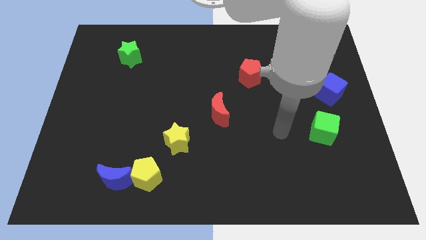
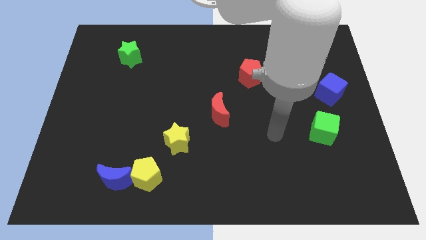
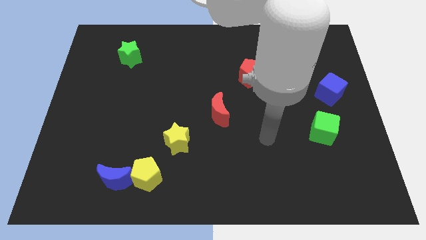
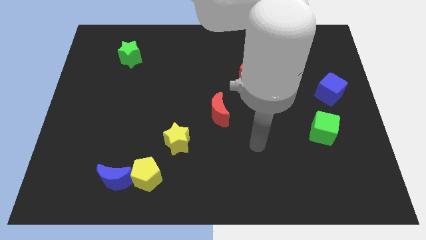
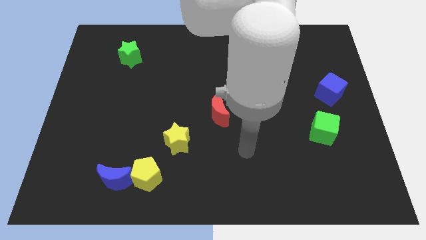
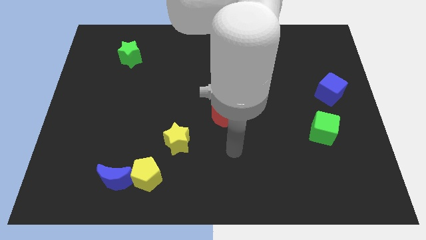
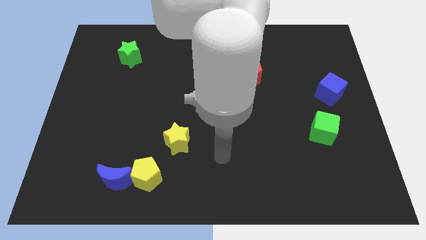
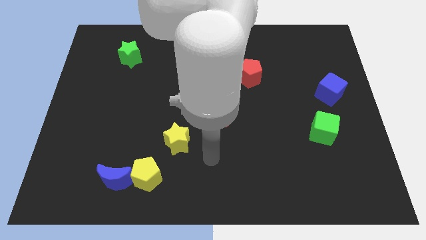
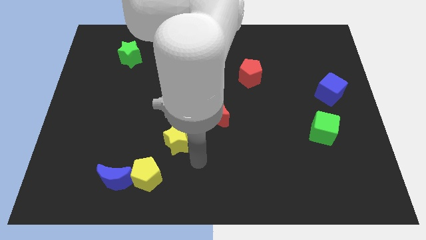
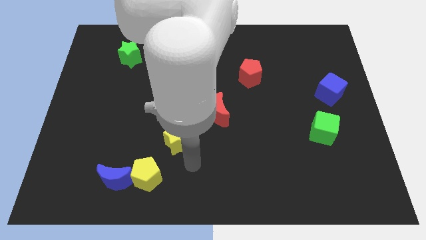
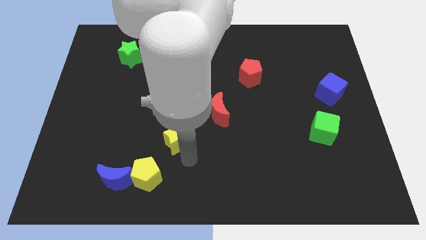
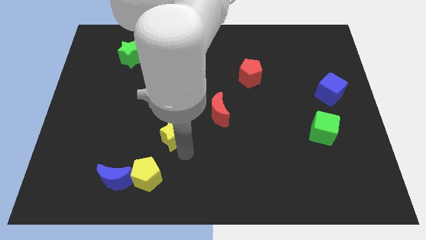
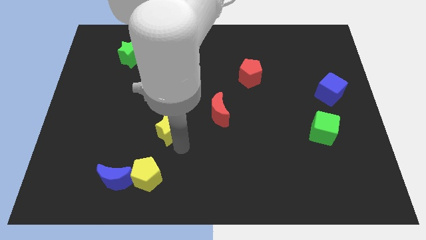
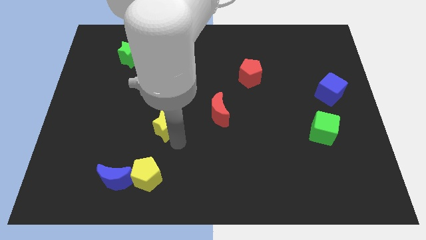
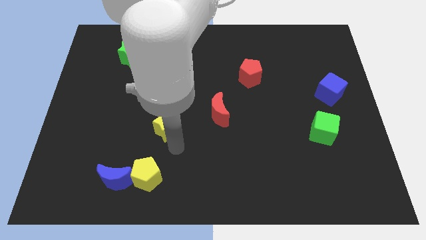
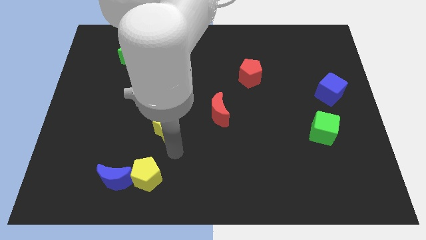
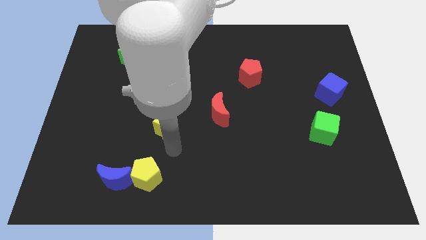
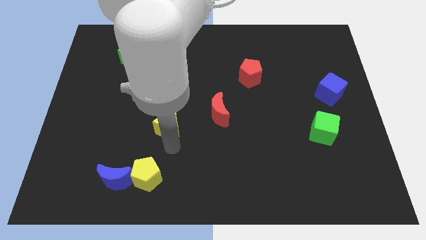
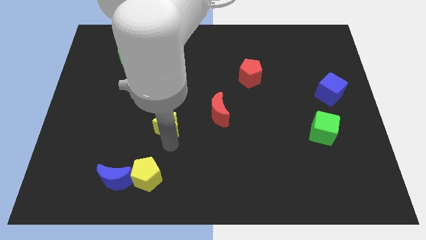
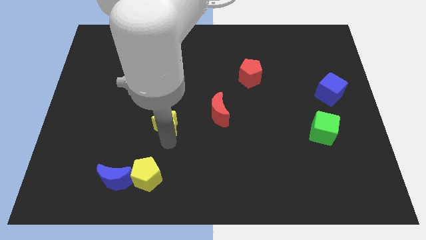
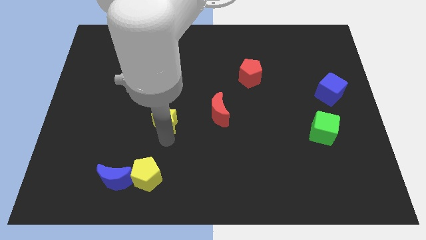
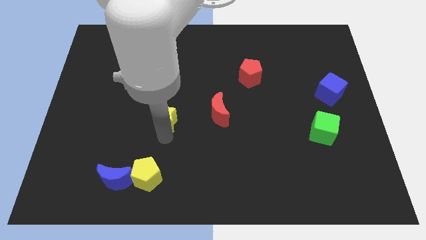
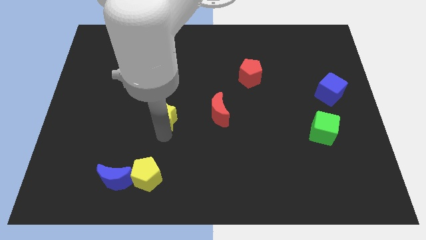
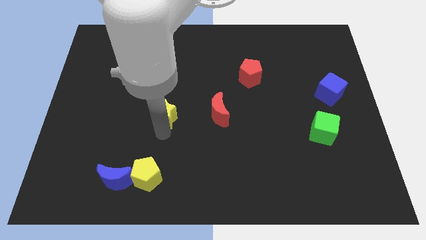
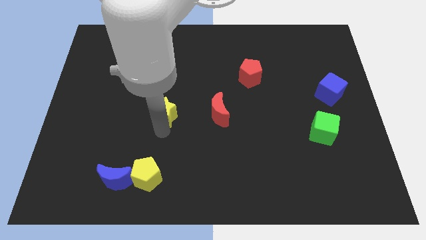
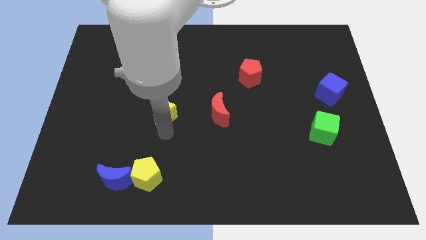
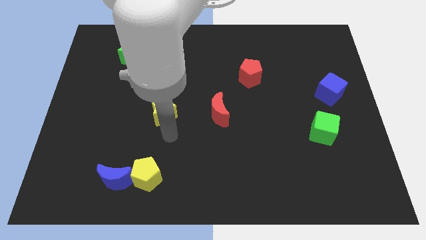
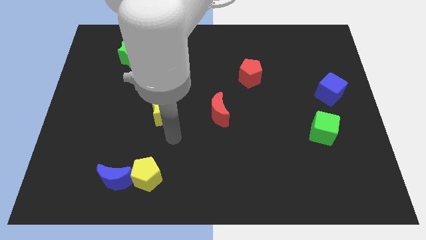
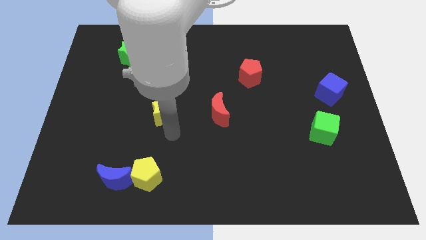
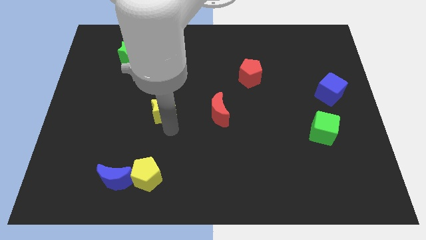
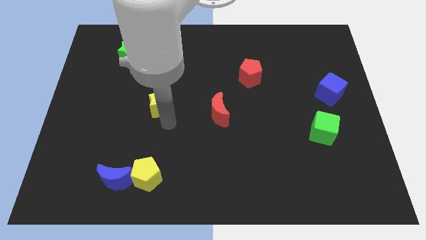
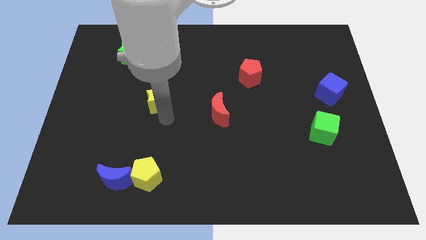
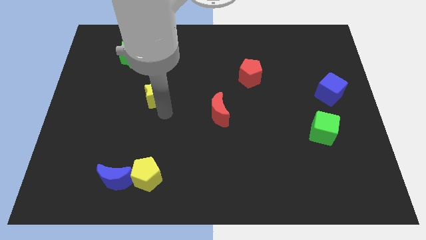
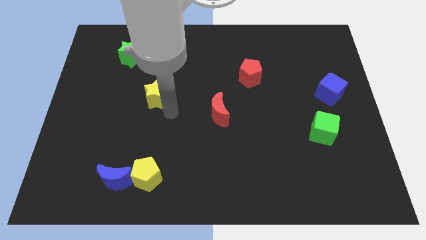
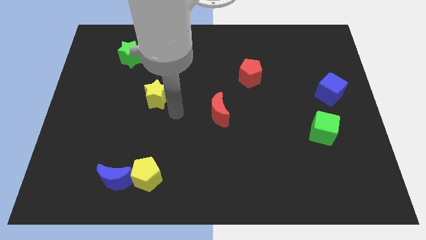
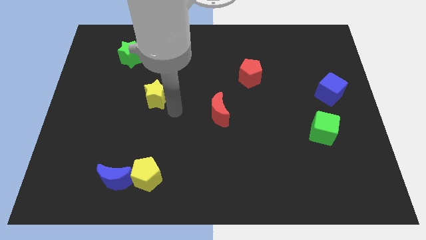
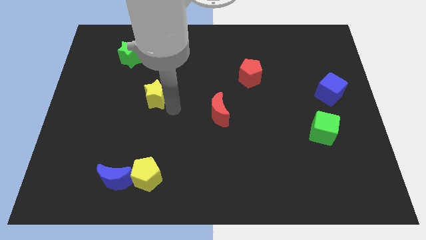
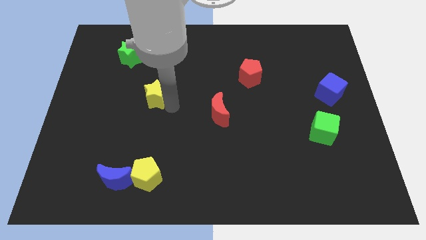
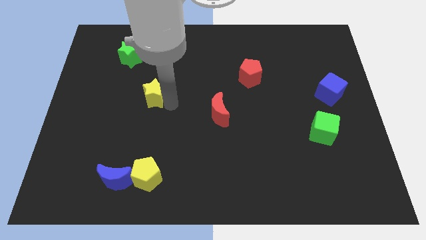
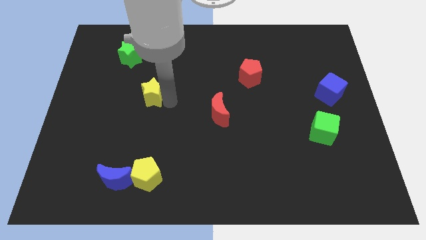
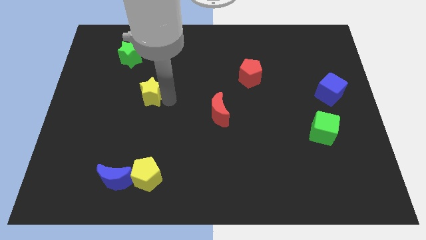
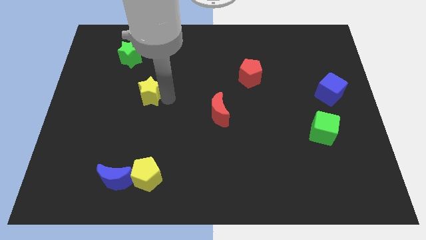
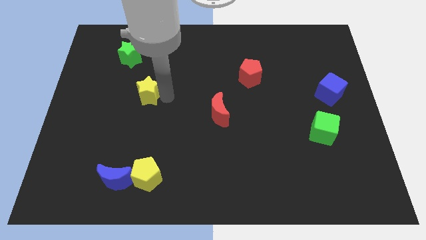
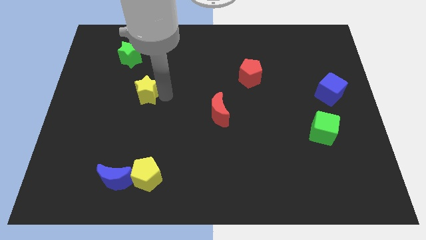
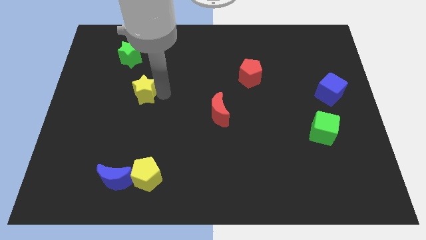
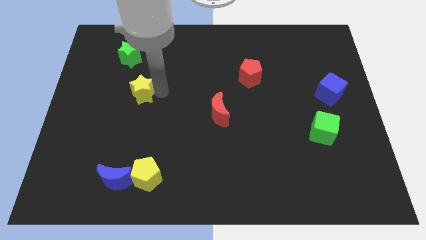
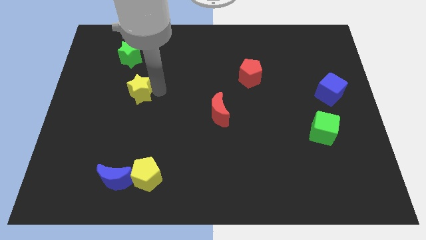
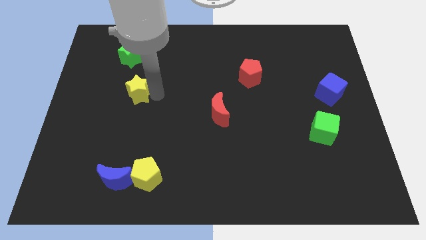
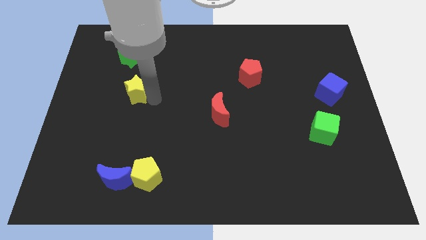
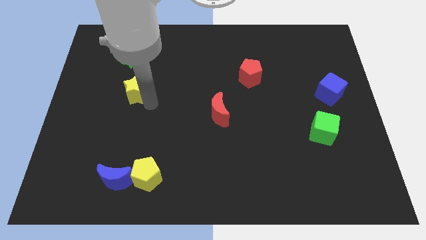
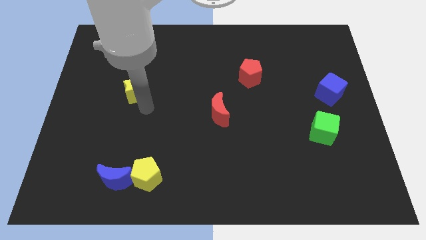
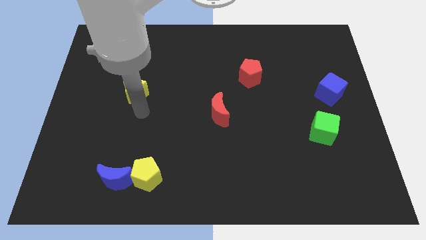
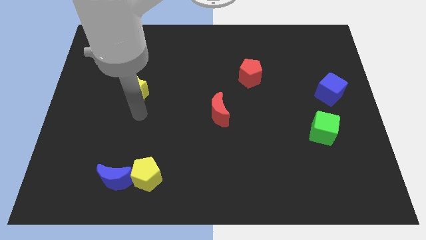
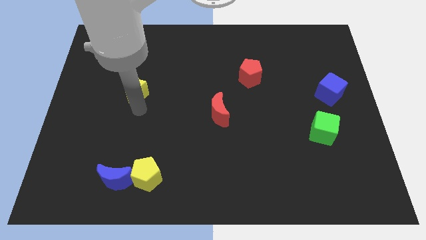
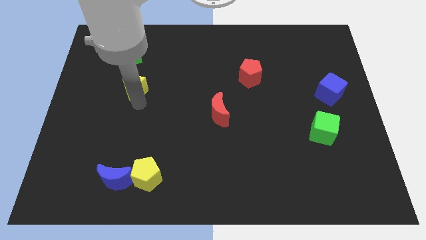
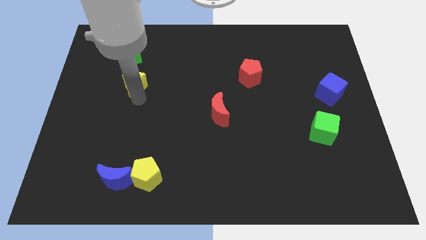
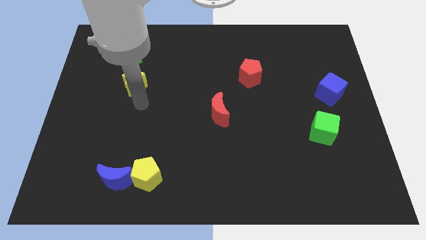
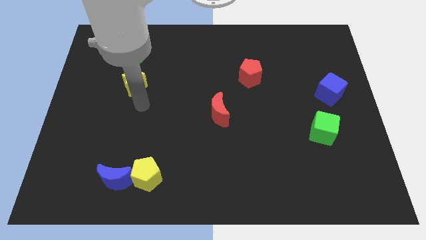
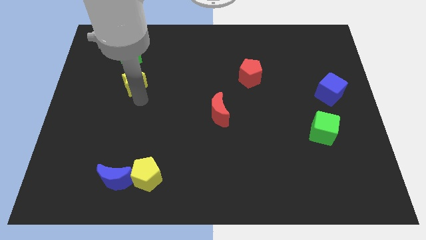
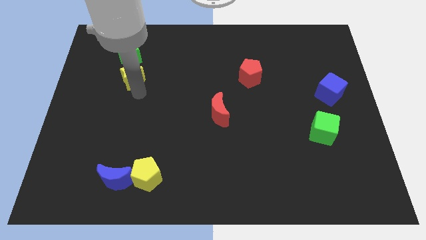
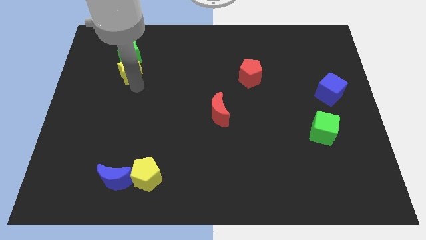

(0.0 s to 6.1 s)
slide the yellow star to the green star

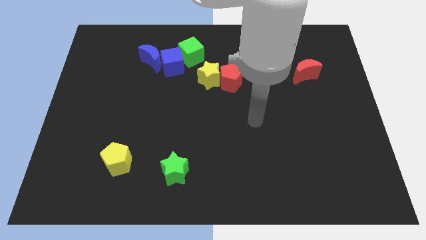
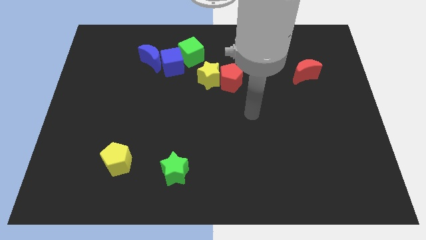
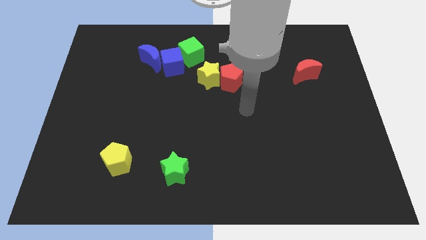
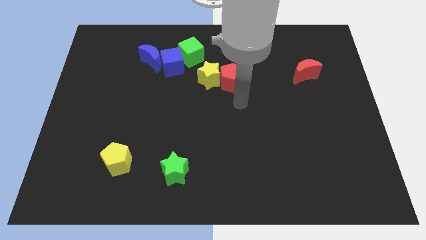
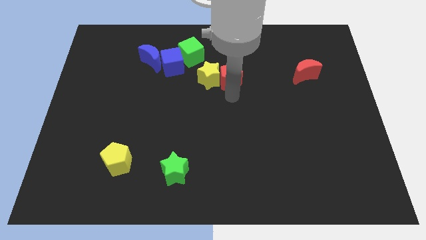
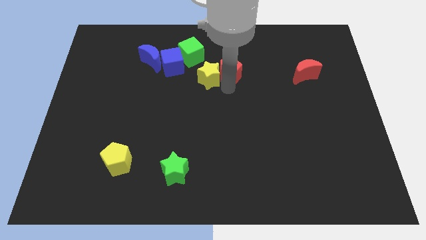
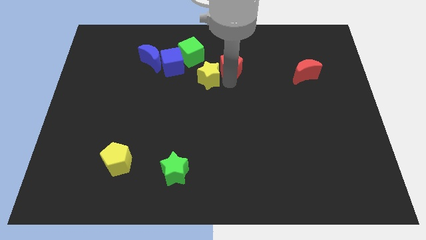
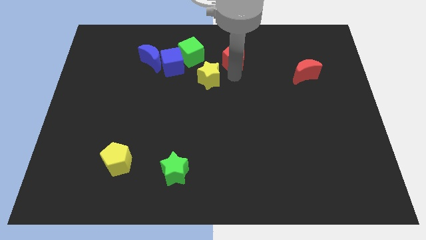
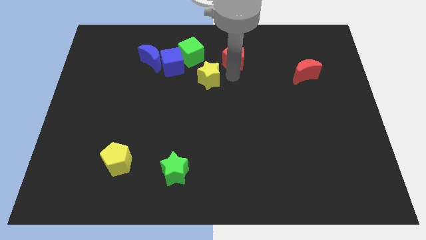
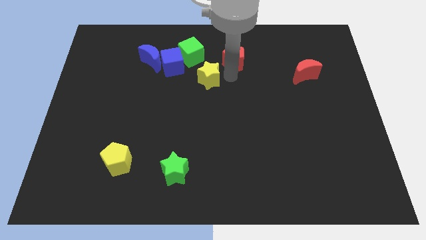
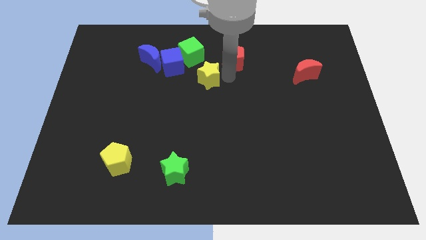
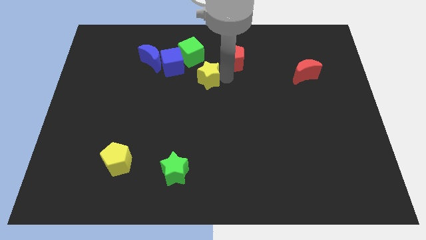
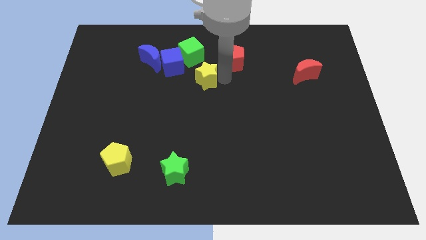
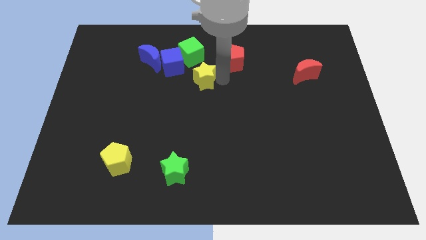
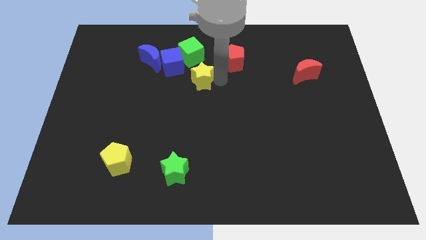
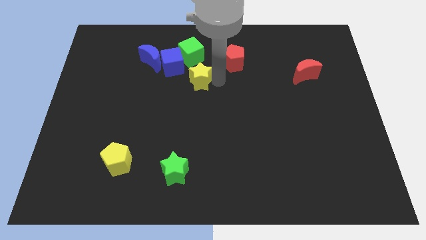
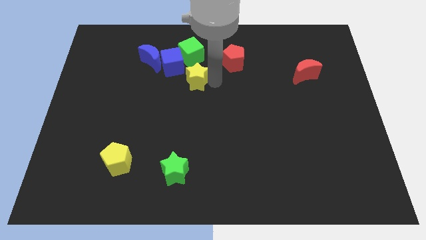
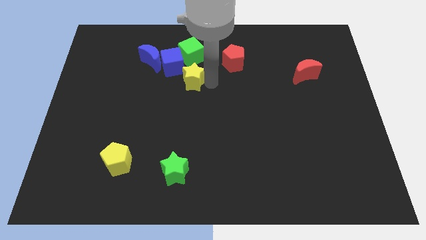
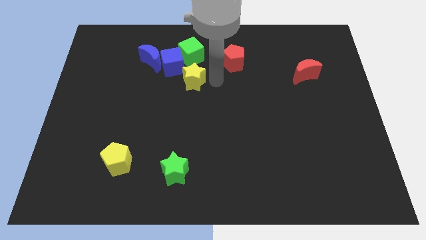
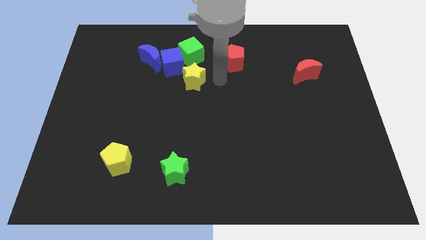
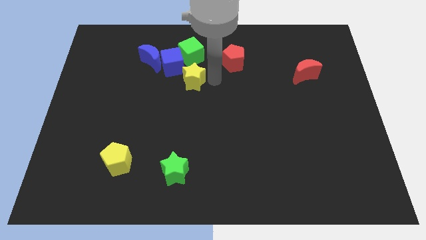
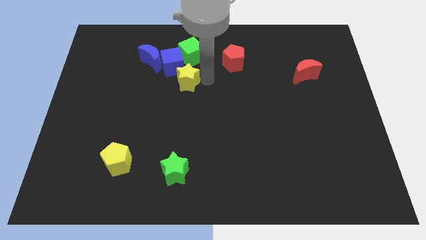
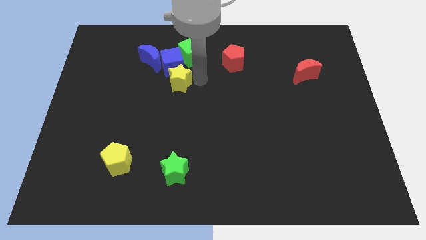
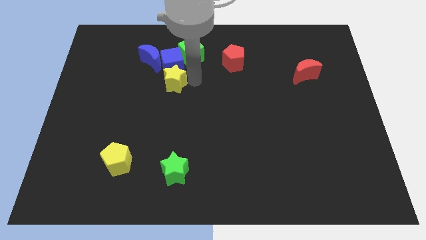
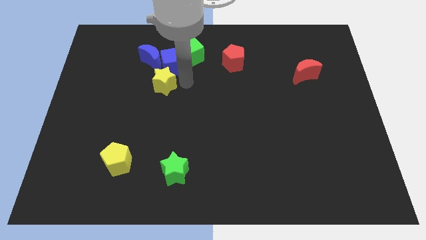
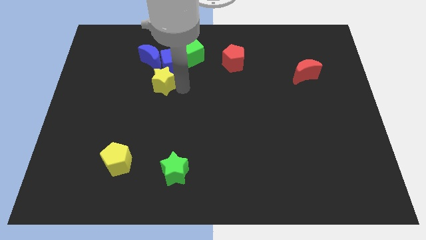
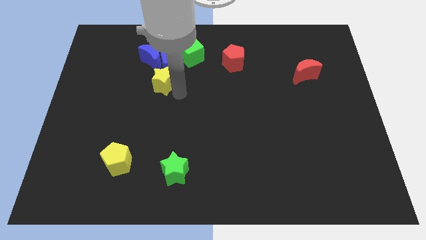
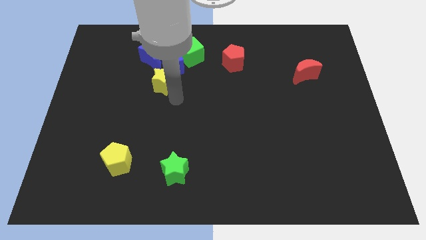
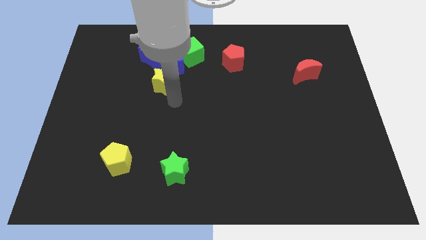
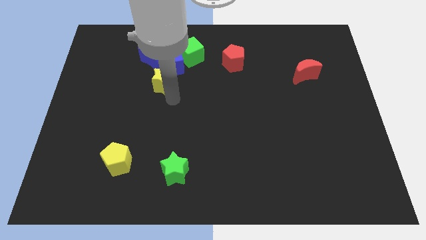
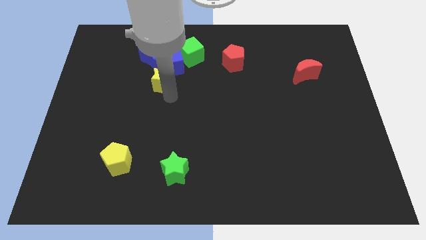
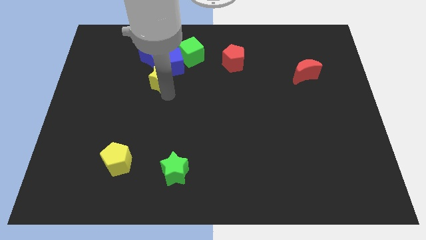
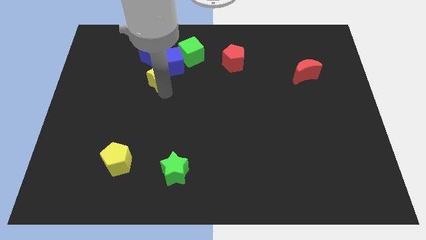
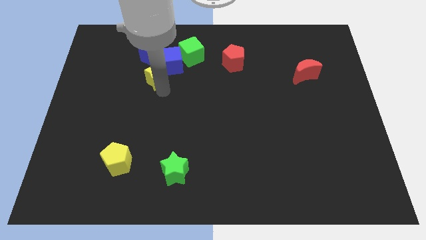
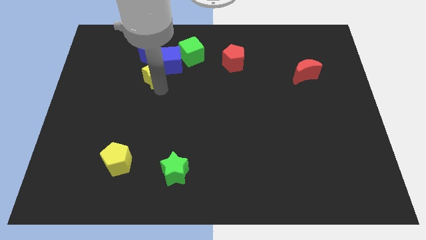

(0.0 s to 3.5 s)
push the yellow star close to the blue moon
